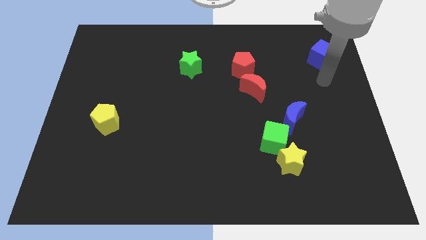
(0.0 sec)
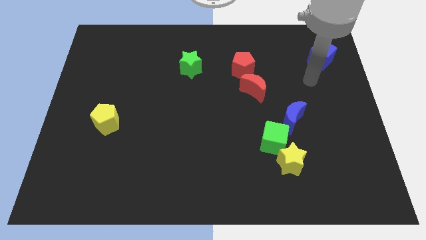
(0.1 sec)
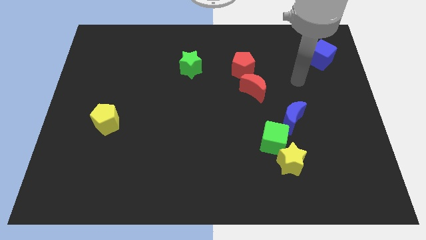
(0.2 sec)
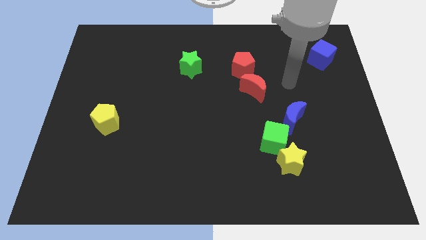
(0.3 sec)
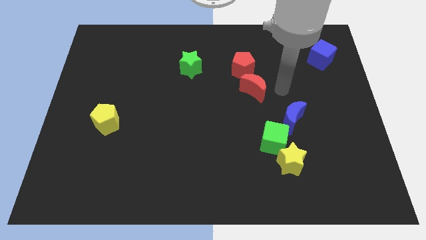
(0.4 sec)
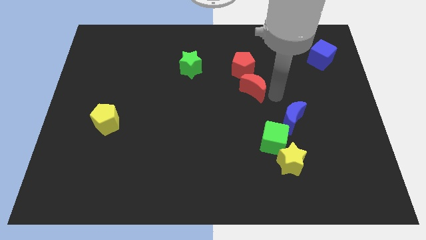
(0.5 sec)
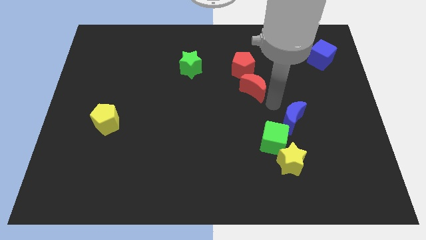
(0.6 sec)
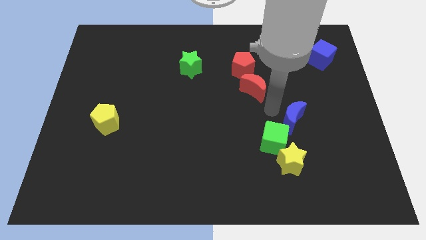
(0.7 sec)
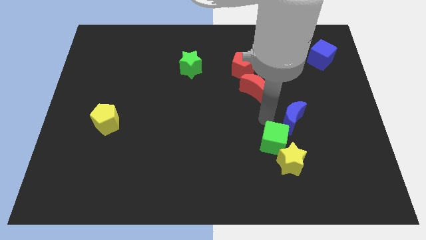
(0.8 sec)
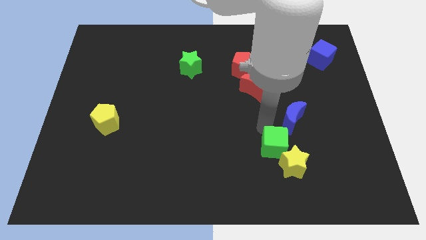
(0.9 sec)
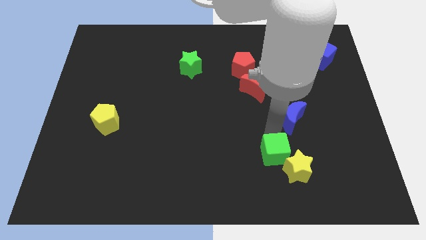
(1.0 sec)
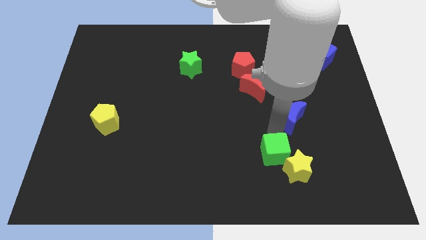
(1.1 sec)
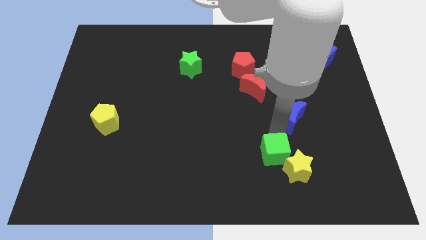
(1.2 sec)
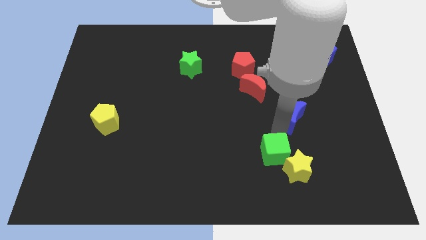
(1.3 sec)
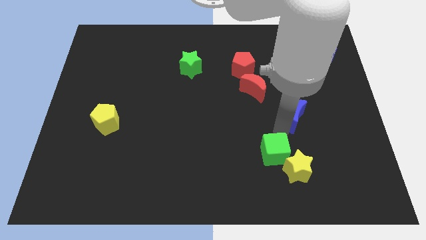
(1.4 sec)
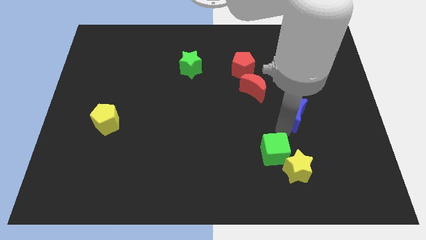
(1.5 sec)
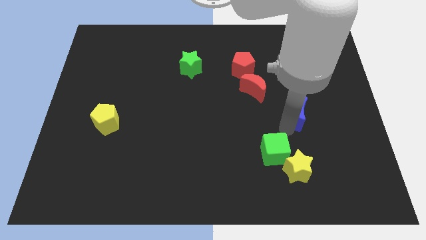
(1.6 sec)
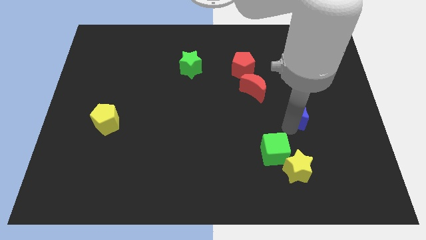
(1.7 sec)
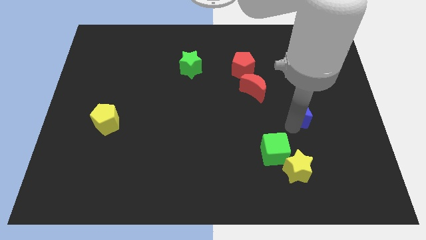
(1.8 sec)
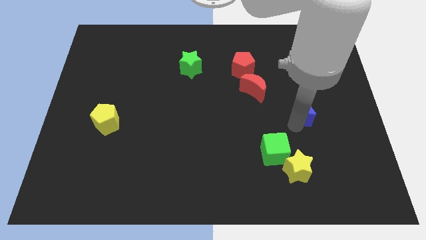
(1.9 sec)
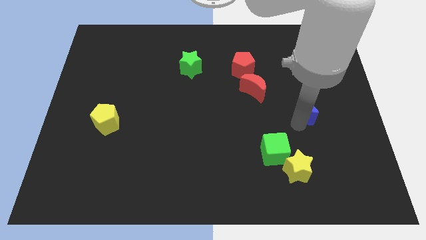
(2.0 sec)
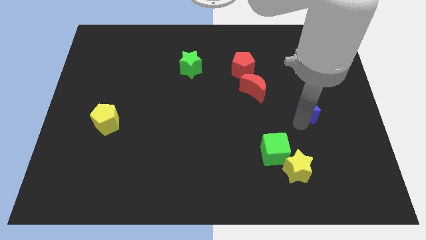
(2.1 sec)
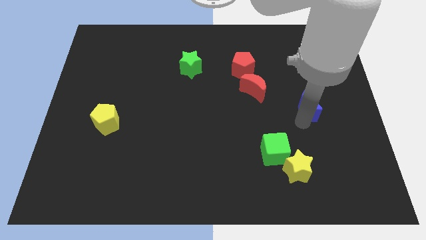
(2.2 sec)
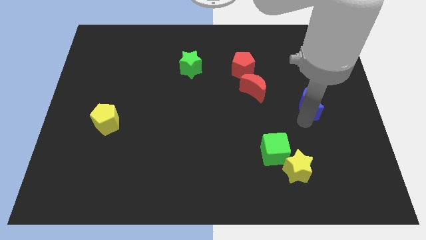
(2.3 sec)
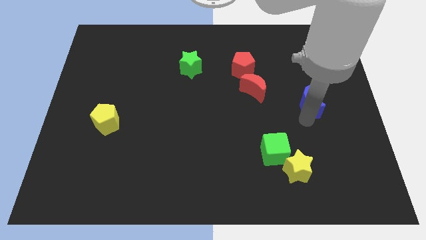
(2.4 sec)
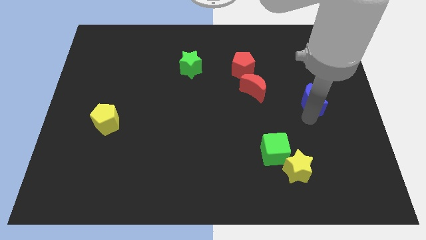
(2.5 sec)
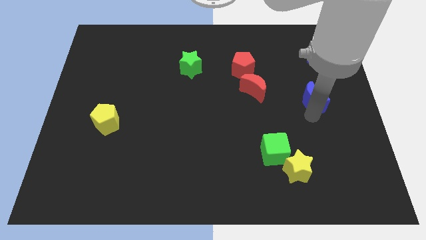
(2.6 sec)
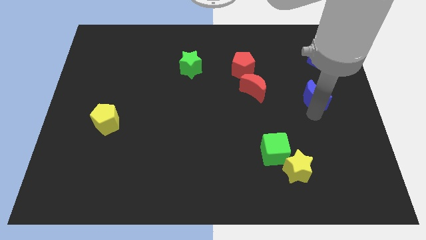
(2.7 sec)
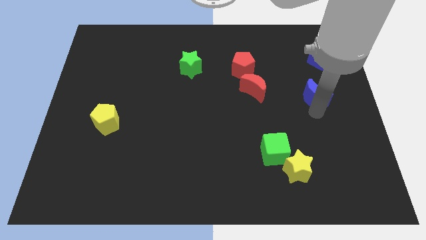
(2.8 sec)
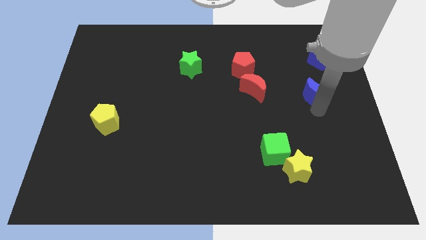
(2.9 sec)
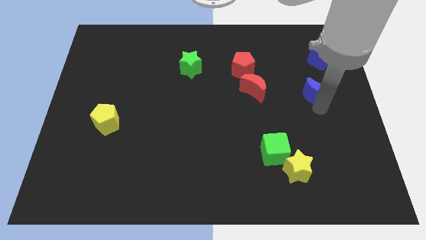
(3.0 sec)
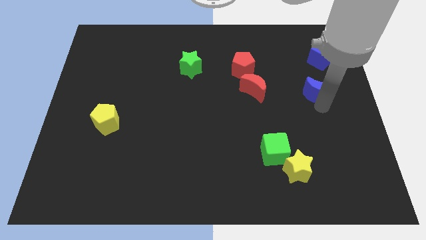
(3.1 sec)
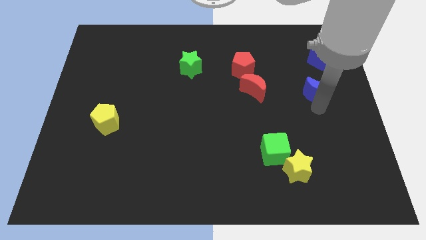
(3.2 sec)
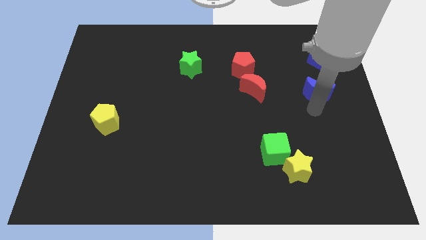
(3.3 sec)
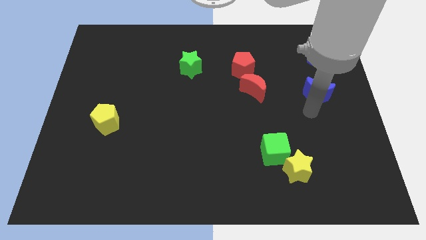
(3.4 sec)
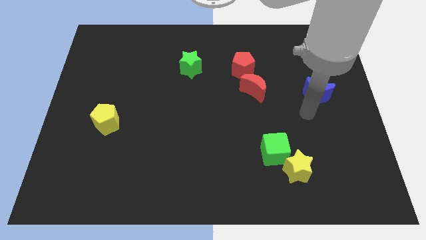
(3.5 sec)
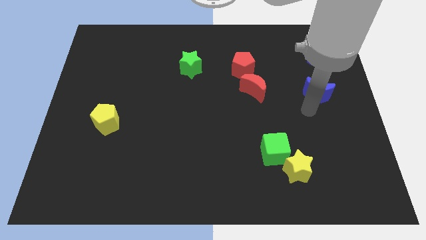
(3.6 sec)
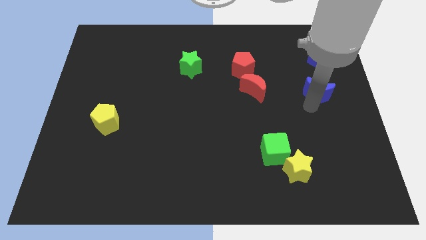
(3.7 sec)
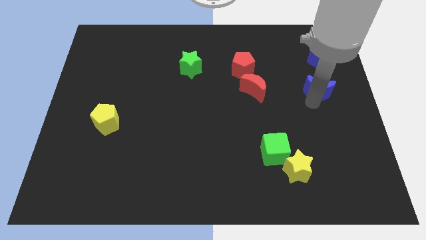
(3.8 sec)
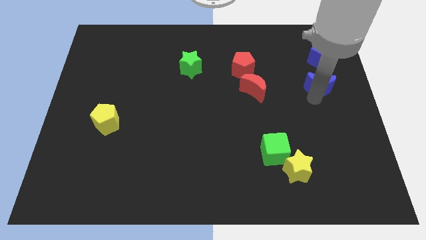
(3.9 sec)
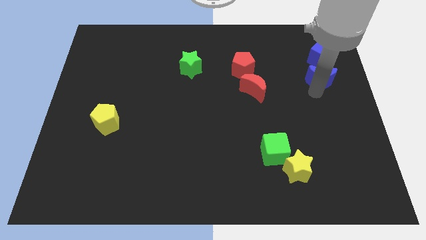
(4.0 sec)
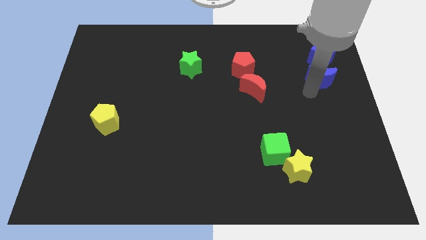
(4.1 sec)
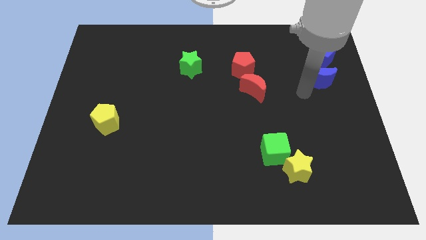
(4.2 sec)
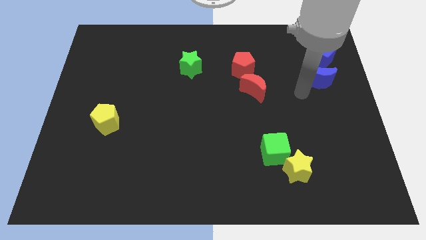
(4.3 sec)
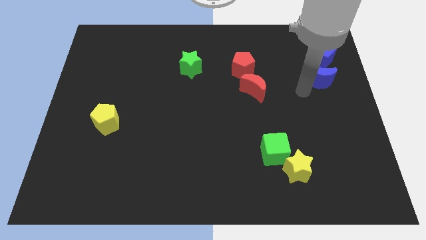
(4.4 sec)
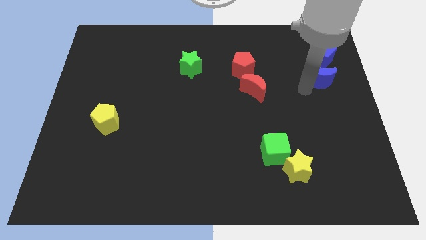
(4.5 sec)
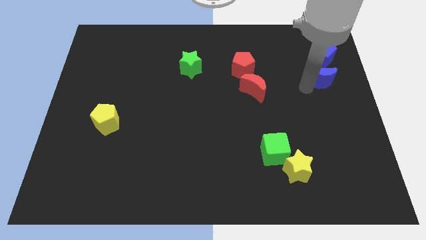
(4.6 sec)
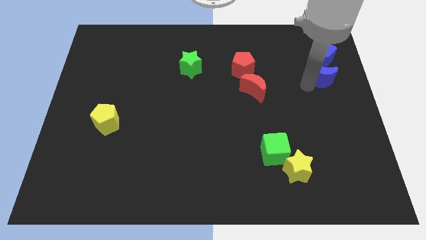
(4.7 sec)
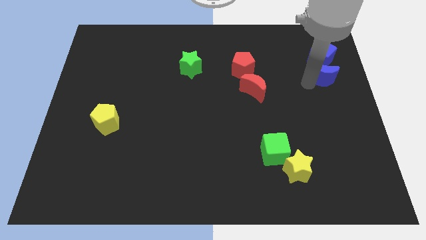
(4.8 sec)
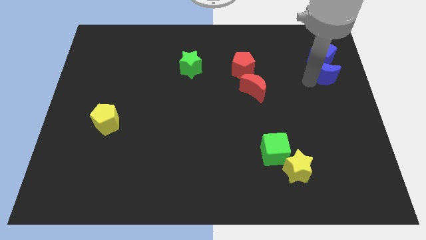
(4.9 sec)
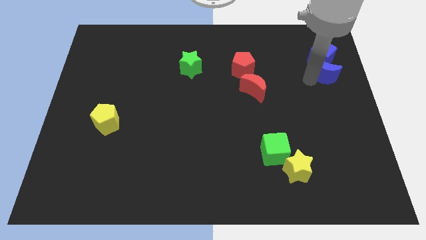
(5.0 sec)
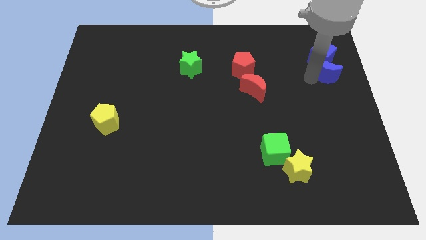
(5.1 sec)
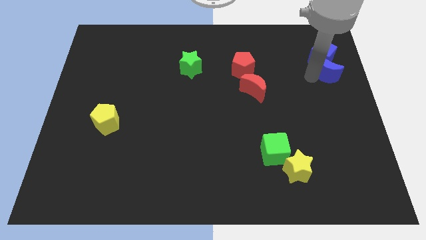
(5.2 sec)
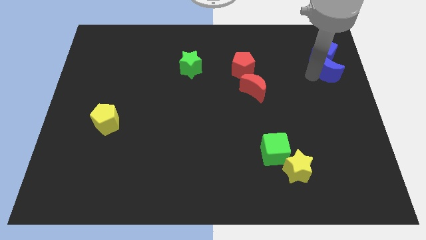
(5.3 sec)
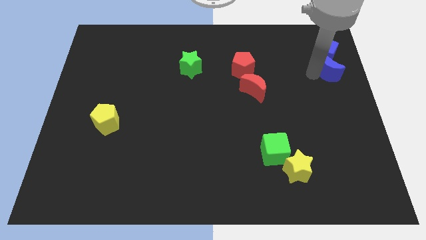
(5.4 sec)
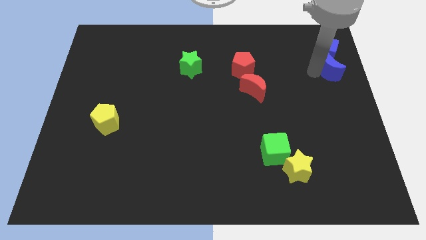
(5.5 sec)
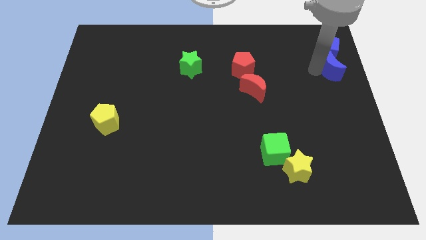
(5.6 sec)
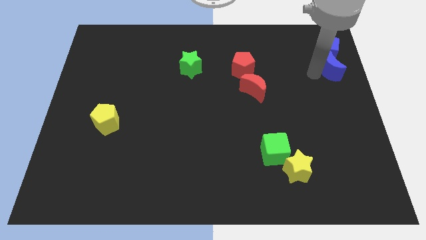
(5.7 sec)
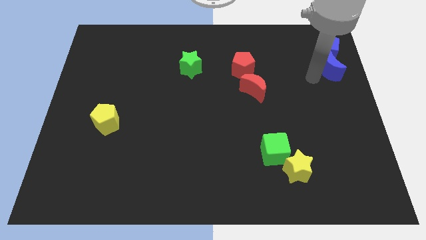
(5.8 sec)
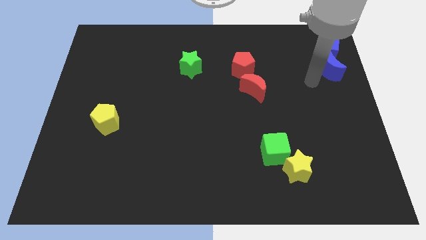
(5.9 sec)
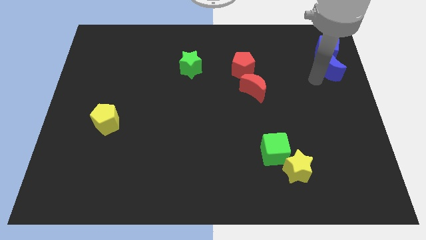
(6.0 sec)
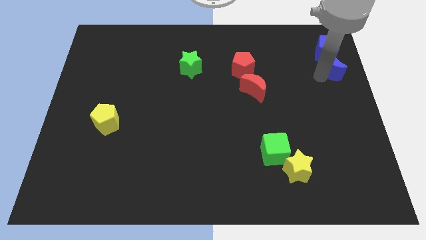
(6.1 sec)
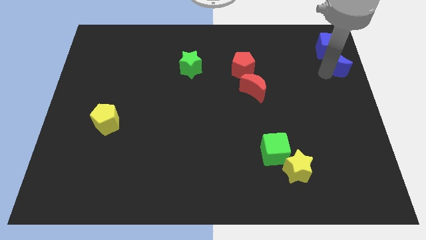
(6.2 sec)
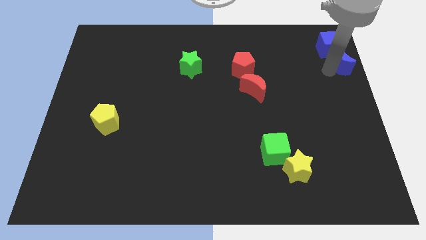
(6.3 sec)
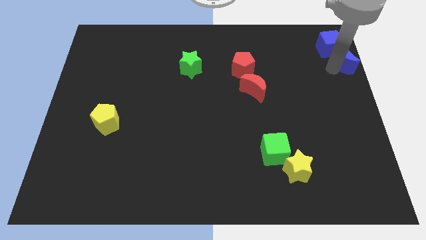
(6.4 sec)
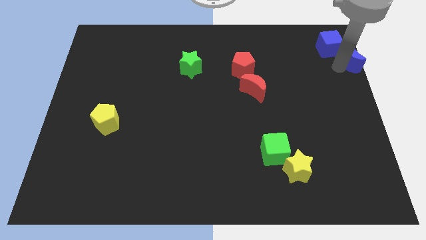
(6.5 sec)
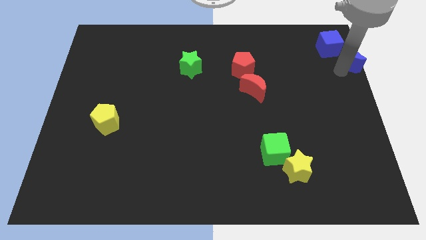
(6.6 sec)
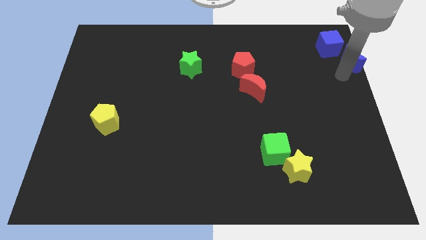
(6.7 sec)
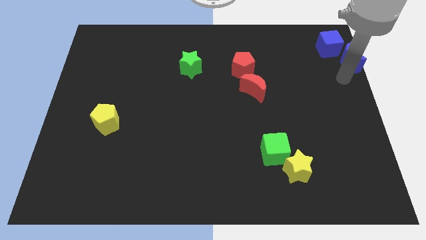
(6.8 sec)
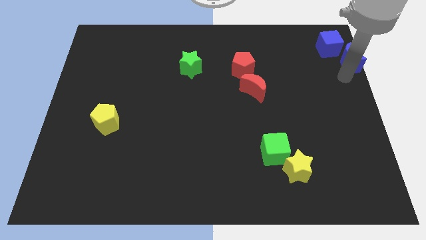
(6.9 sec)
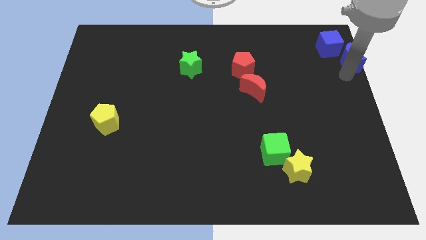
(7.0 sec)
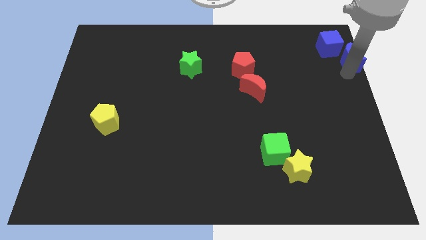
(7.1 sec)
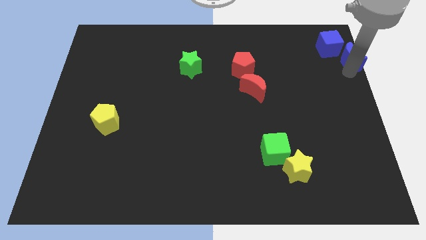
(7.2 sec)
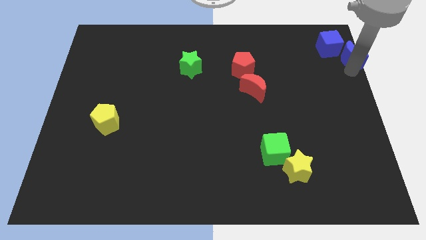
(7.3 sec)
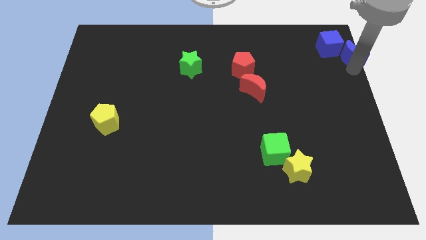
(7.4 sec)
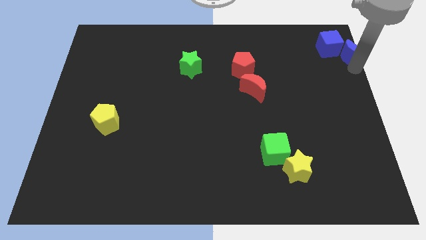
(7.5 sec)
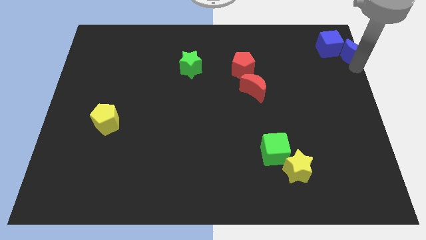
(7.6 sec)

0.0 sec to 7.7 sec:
push the blue moon to the top right
